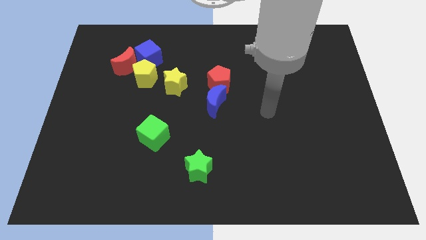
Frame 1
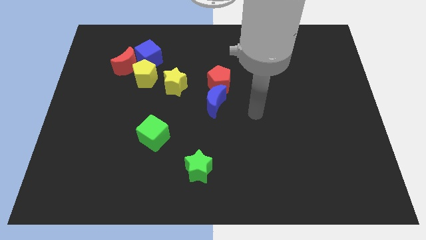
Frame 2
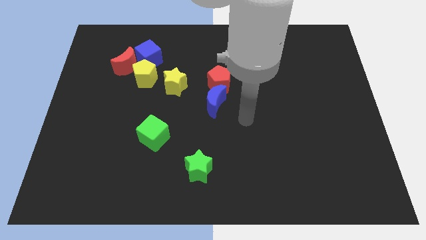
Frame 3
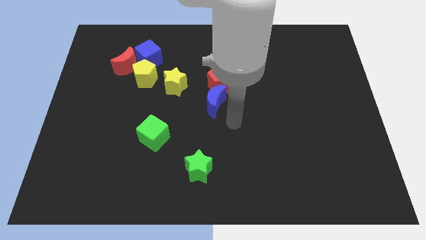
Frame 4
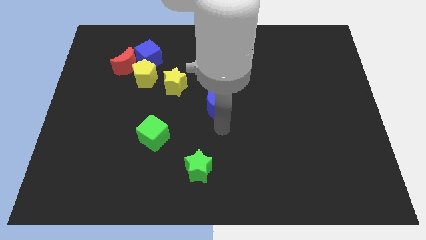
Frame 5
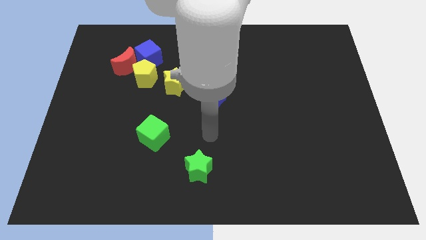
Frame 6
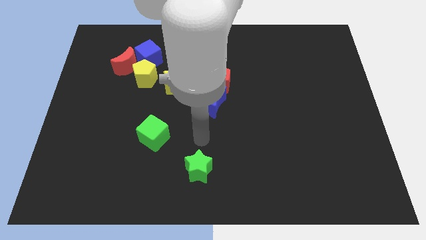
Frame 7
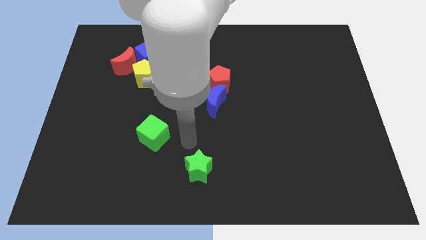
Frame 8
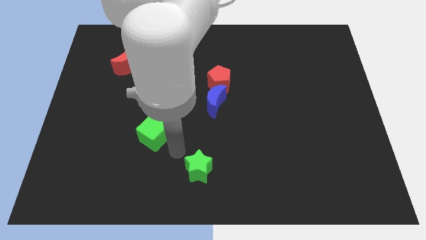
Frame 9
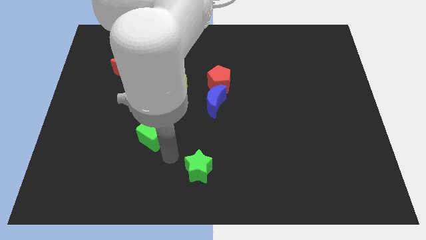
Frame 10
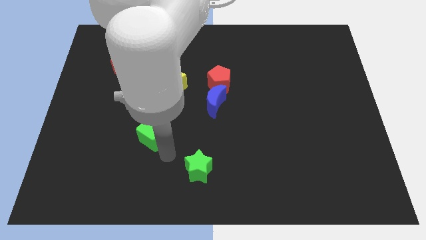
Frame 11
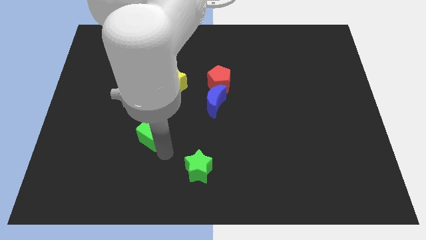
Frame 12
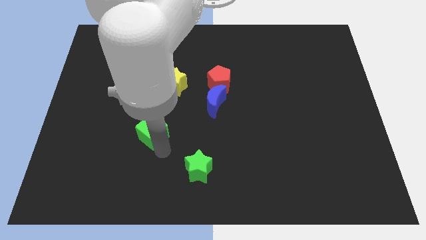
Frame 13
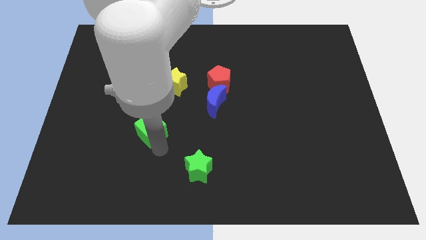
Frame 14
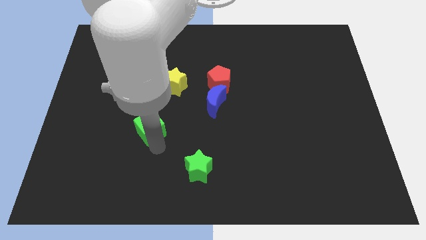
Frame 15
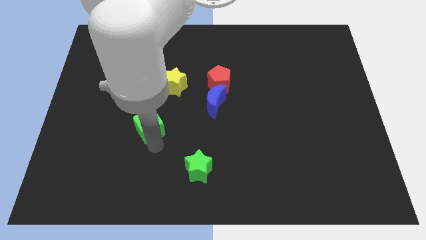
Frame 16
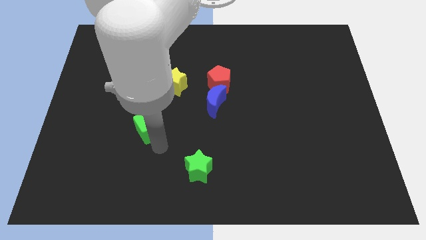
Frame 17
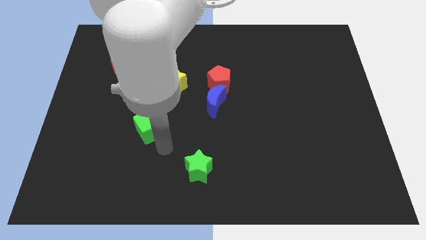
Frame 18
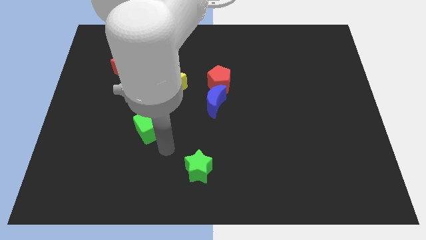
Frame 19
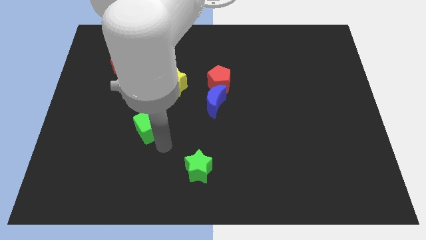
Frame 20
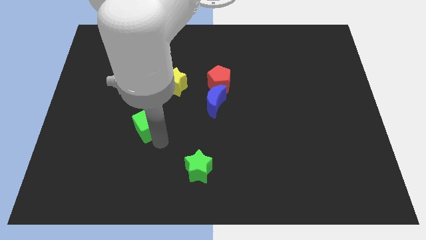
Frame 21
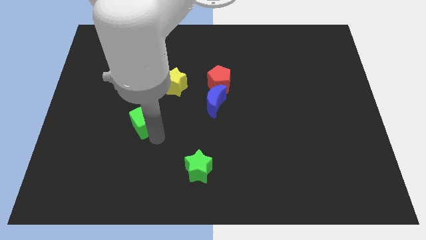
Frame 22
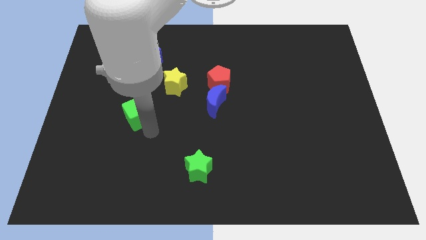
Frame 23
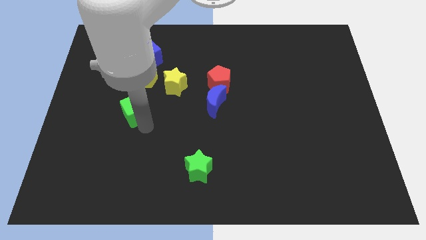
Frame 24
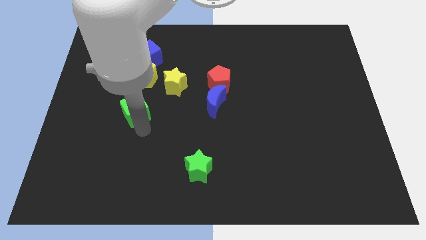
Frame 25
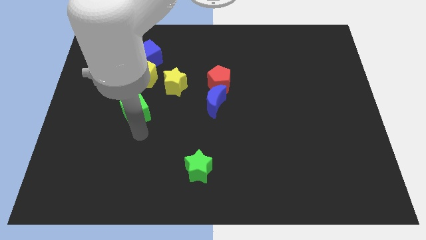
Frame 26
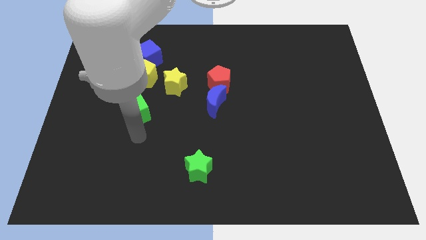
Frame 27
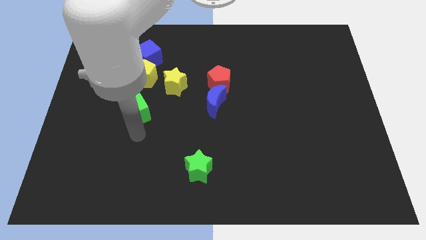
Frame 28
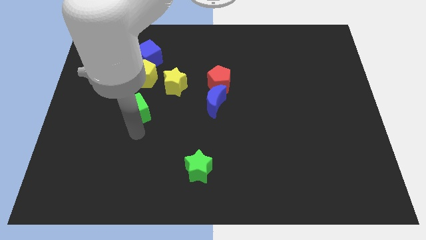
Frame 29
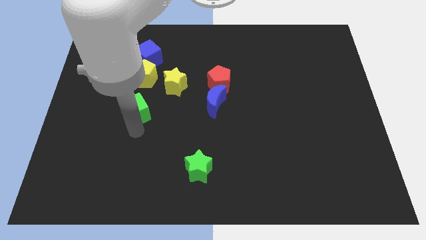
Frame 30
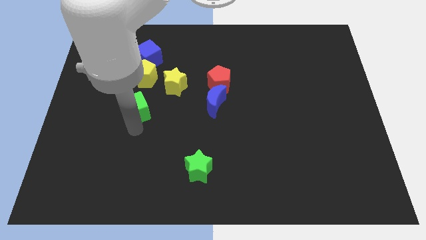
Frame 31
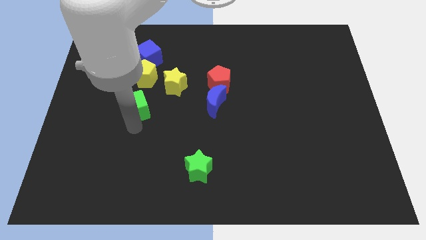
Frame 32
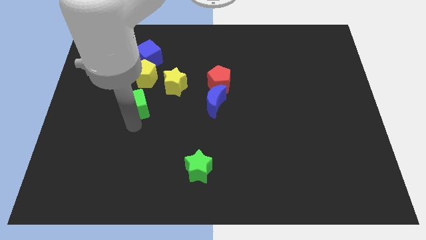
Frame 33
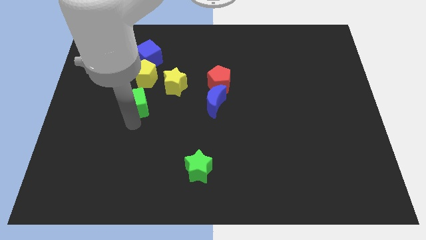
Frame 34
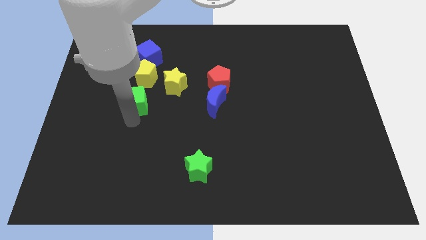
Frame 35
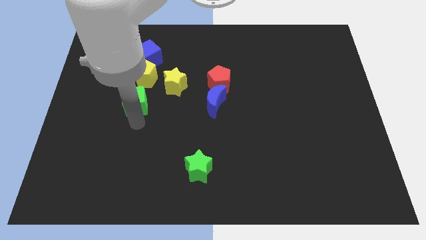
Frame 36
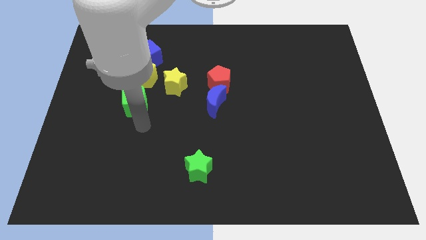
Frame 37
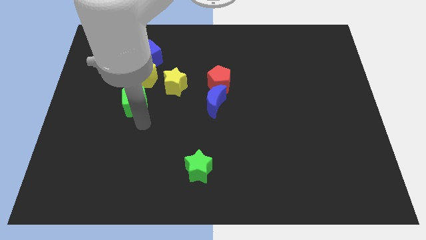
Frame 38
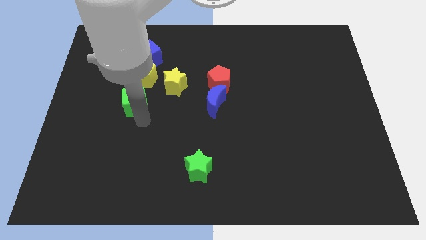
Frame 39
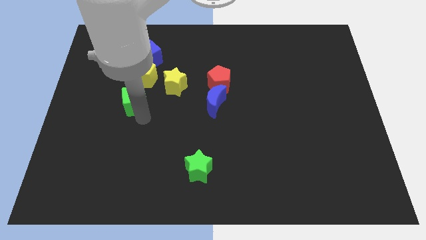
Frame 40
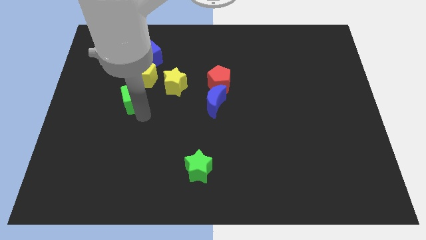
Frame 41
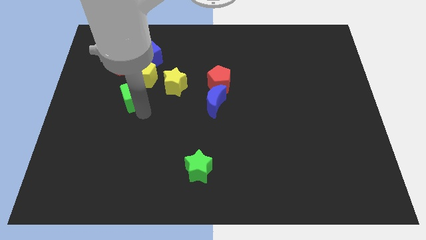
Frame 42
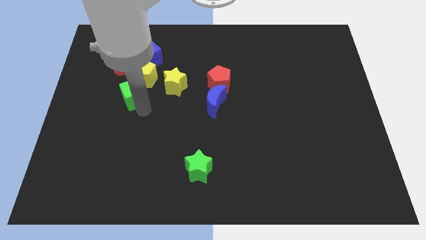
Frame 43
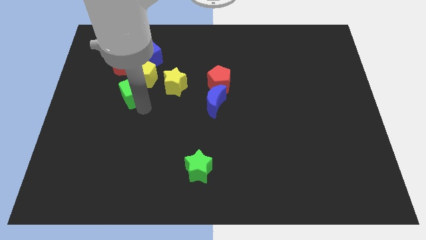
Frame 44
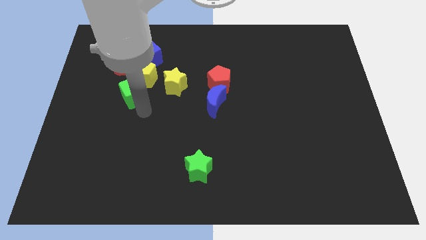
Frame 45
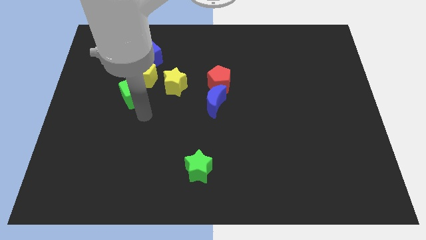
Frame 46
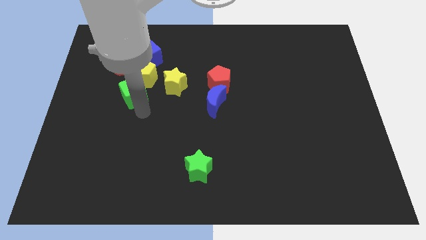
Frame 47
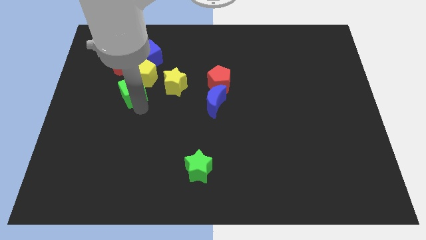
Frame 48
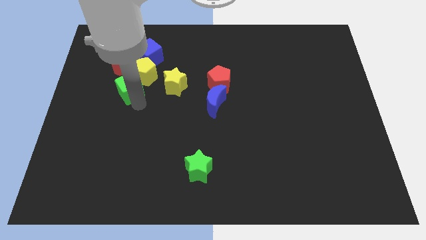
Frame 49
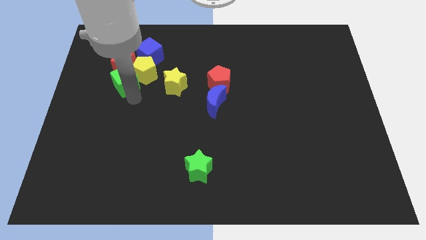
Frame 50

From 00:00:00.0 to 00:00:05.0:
push the green cube towards the red moon

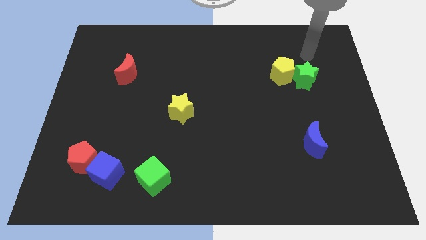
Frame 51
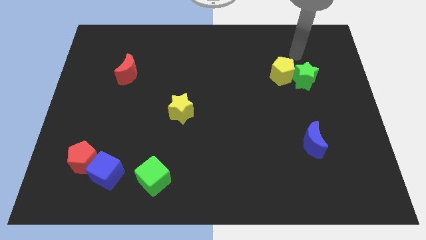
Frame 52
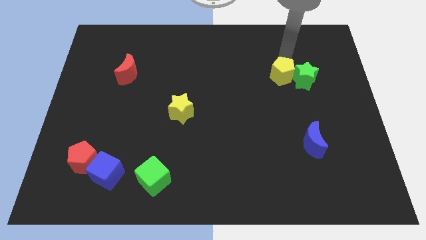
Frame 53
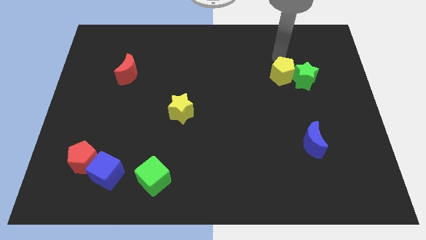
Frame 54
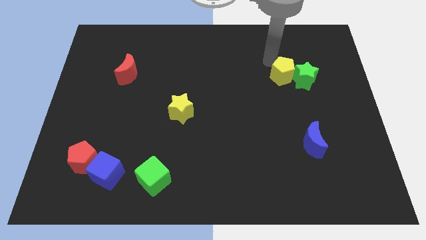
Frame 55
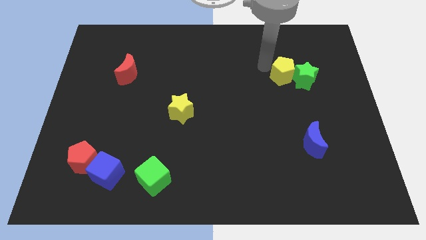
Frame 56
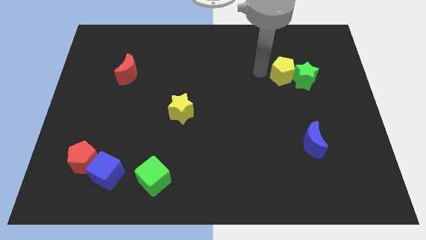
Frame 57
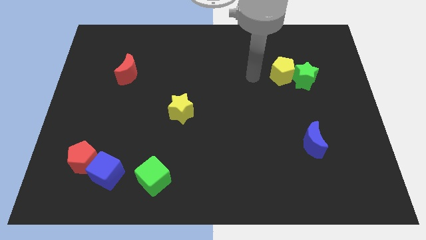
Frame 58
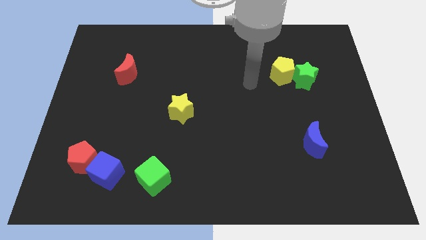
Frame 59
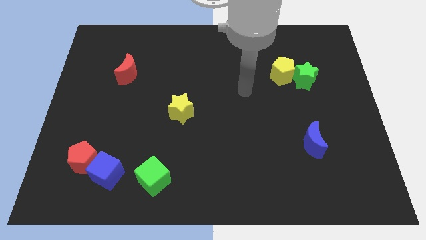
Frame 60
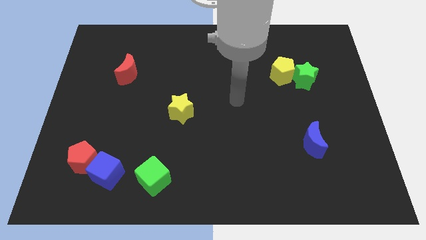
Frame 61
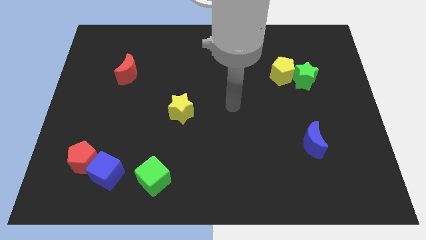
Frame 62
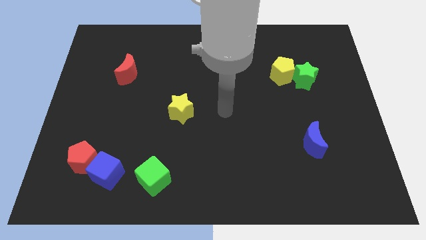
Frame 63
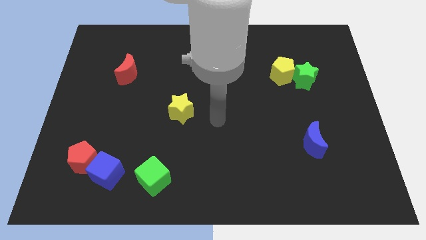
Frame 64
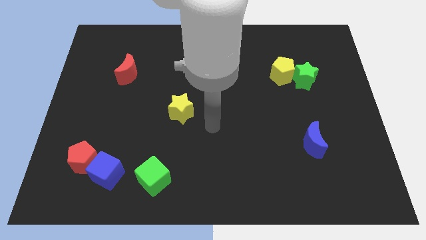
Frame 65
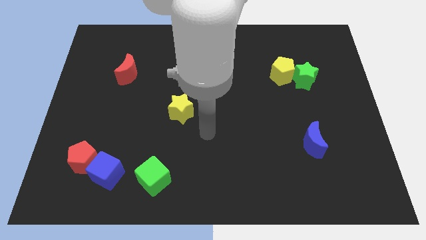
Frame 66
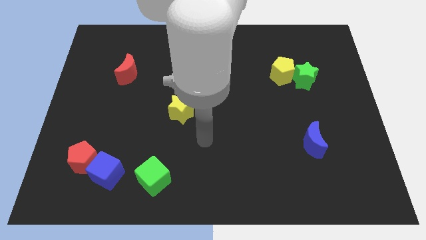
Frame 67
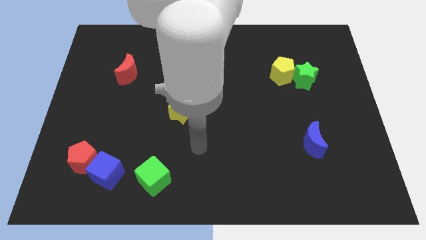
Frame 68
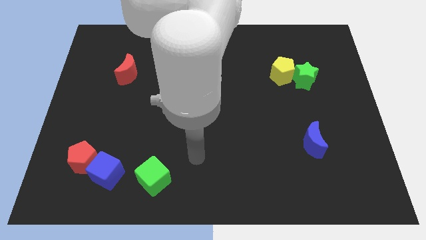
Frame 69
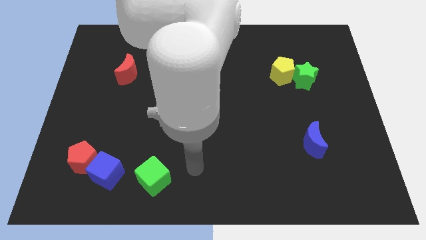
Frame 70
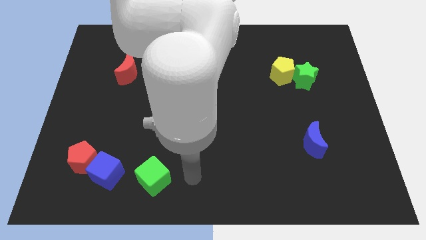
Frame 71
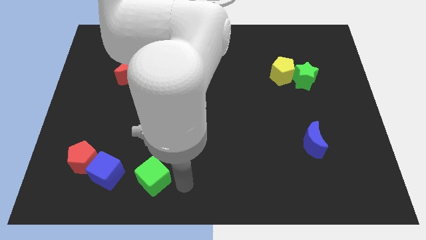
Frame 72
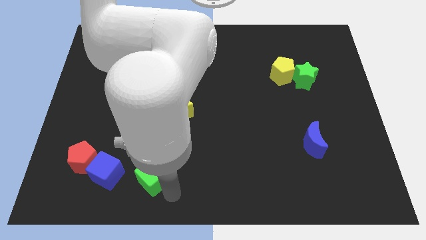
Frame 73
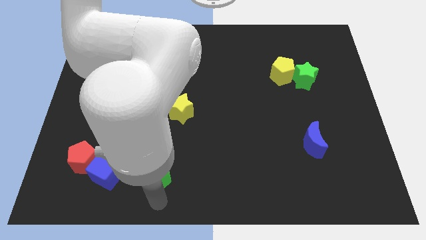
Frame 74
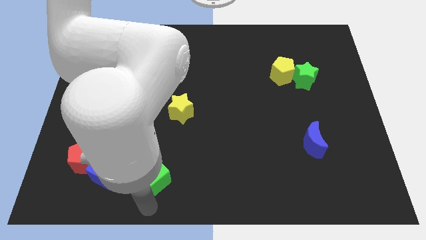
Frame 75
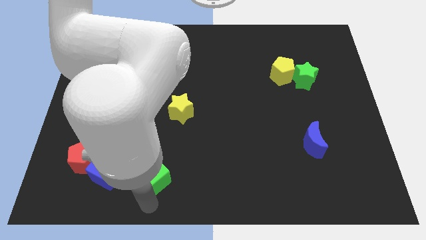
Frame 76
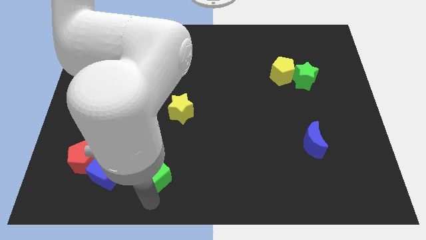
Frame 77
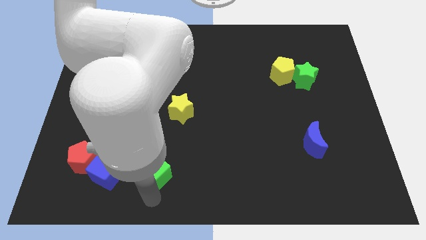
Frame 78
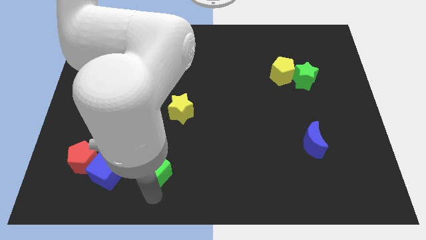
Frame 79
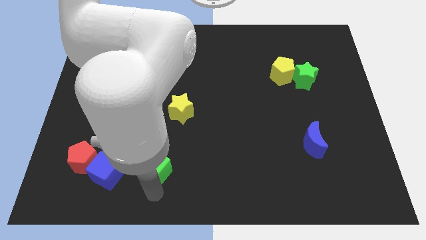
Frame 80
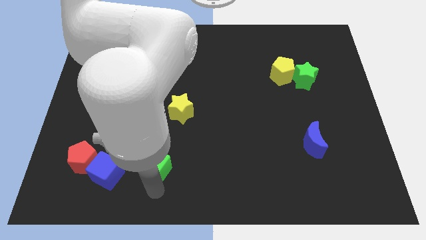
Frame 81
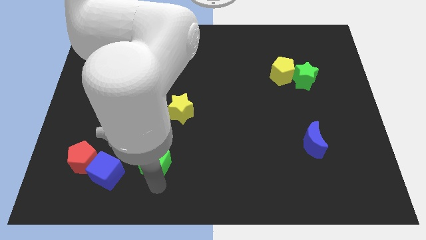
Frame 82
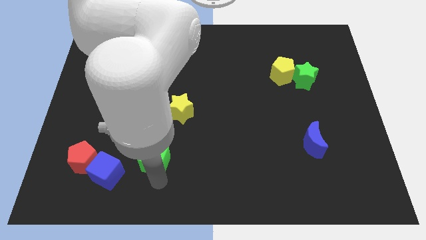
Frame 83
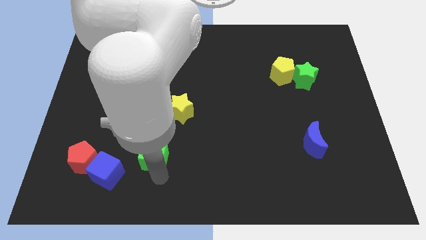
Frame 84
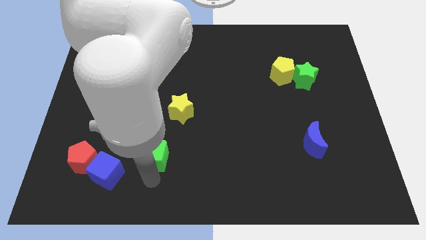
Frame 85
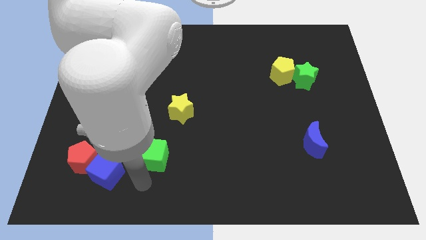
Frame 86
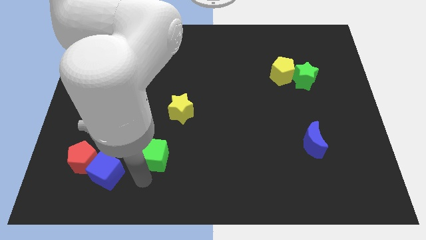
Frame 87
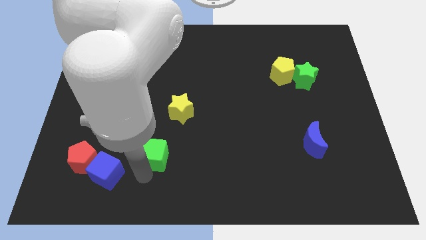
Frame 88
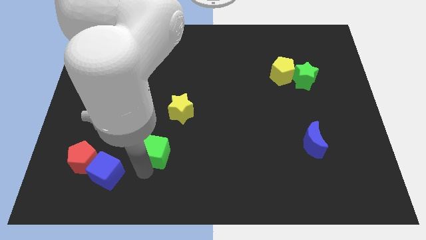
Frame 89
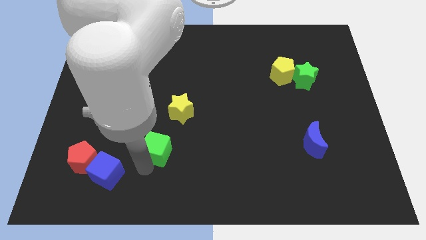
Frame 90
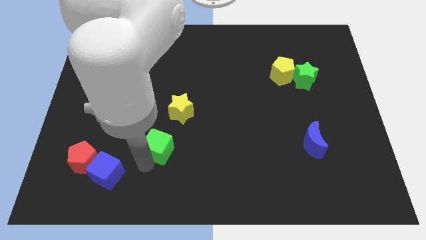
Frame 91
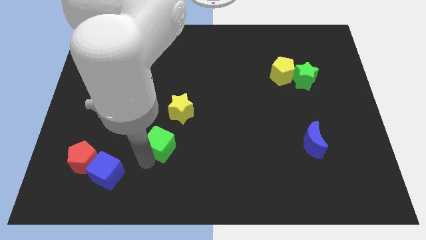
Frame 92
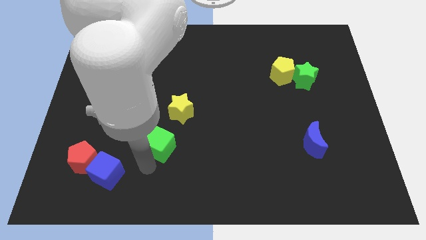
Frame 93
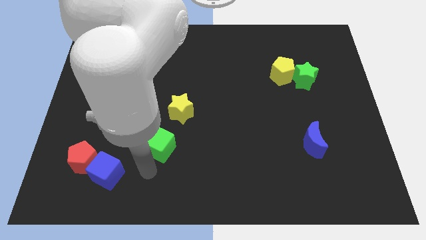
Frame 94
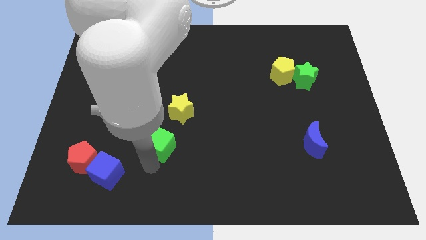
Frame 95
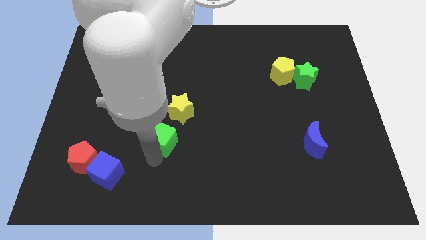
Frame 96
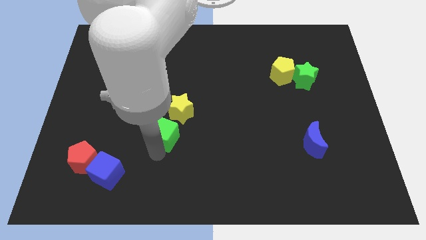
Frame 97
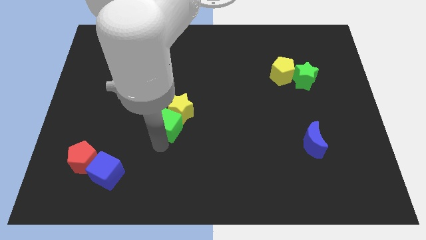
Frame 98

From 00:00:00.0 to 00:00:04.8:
slide the green cube to the yellow star
